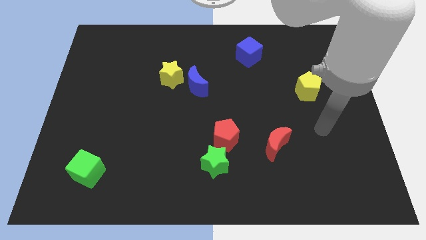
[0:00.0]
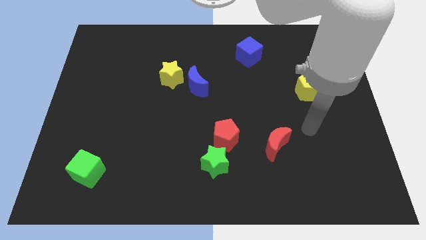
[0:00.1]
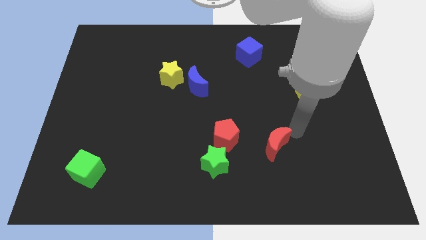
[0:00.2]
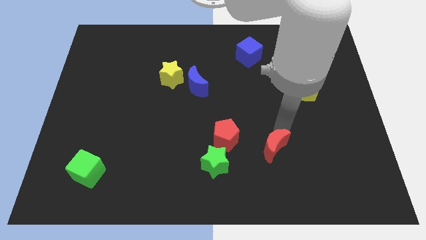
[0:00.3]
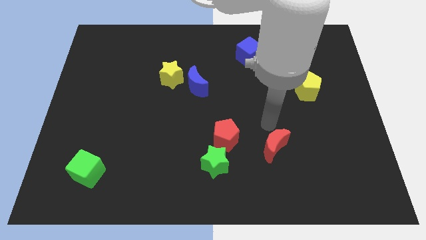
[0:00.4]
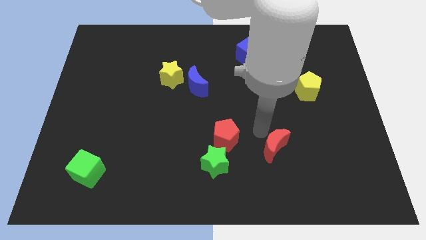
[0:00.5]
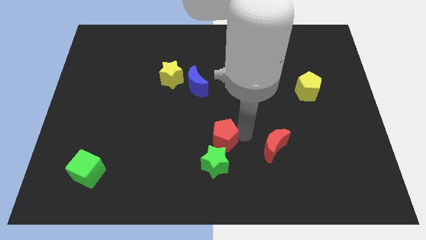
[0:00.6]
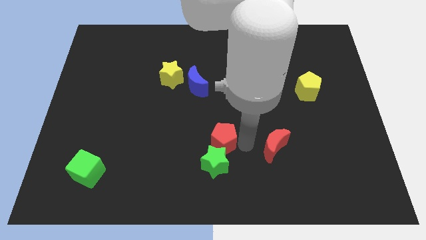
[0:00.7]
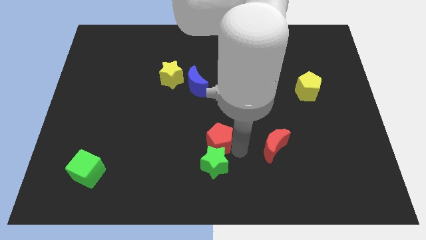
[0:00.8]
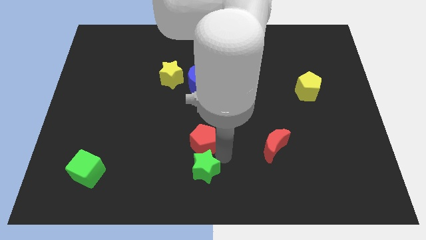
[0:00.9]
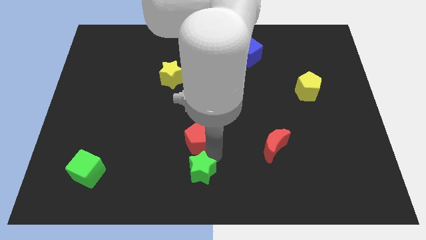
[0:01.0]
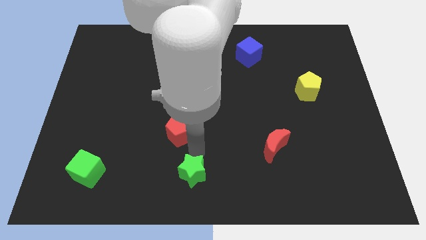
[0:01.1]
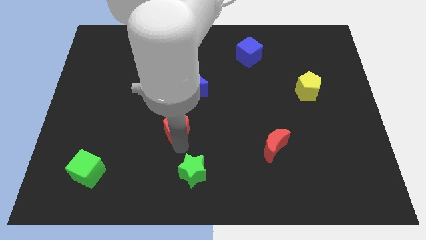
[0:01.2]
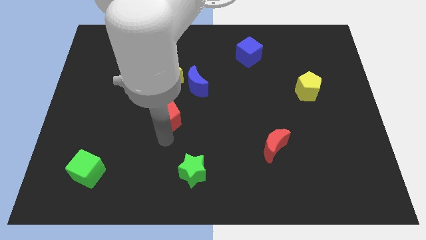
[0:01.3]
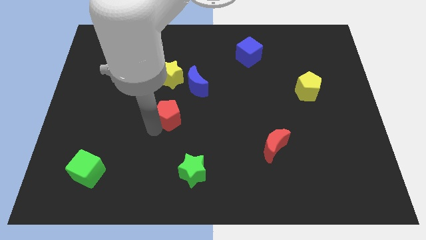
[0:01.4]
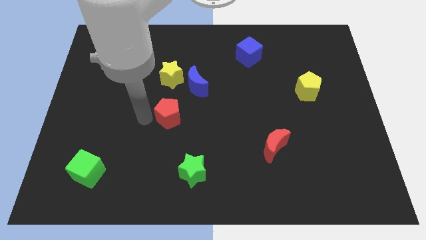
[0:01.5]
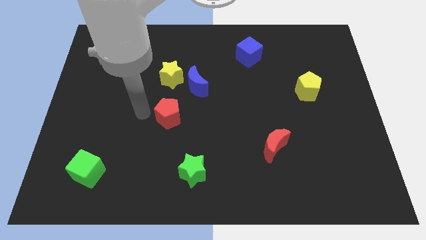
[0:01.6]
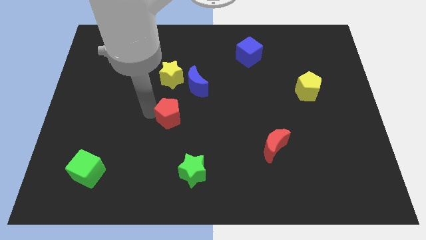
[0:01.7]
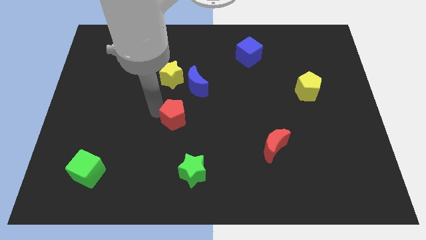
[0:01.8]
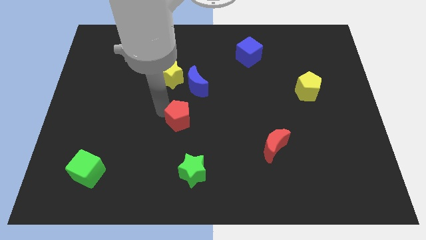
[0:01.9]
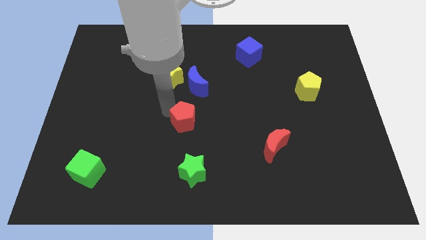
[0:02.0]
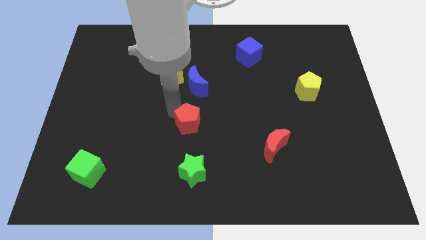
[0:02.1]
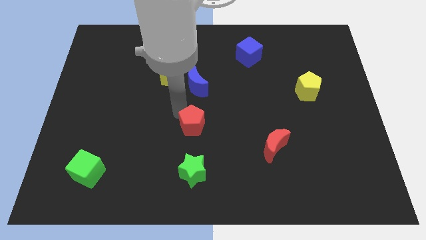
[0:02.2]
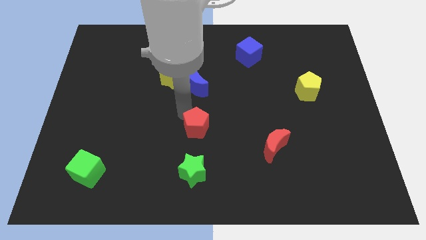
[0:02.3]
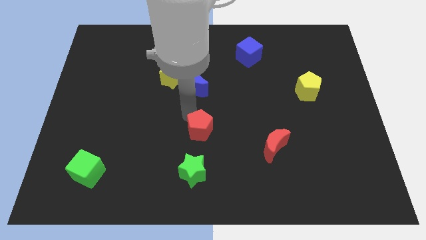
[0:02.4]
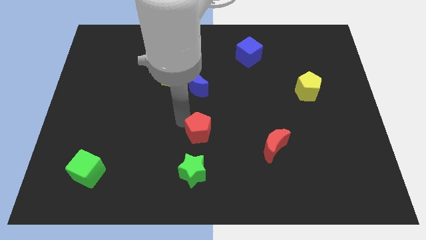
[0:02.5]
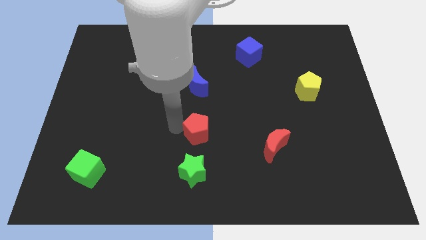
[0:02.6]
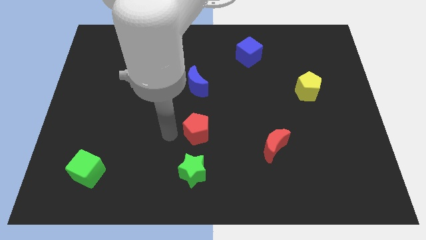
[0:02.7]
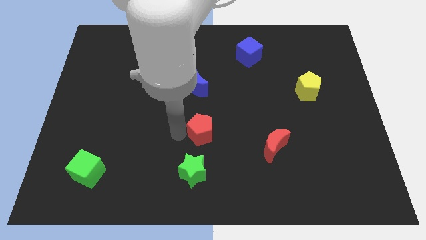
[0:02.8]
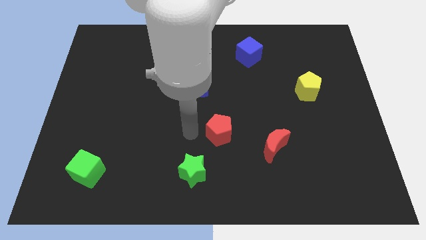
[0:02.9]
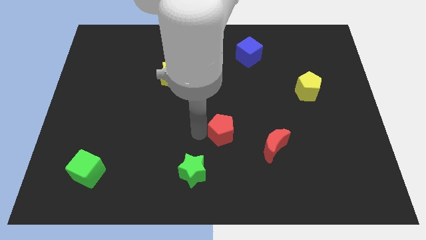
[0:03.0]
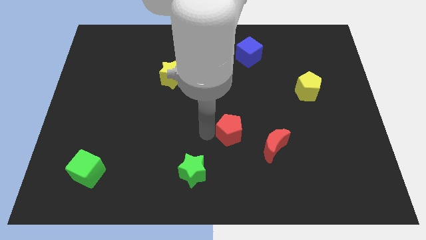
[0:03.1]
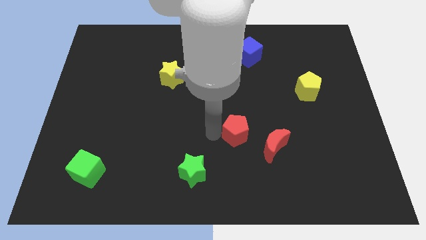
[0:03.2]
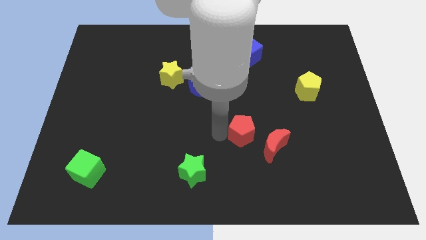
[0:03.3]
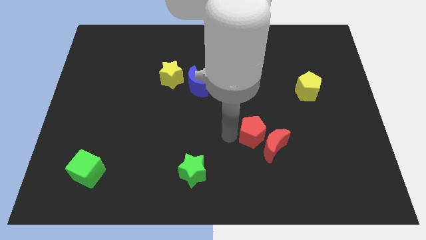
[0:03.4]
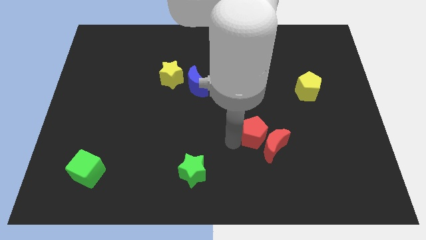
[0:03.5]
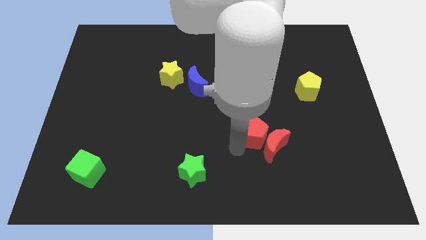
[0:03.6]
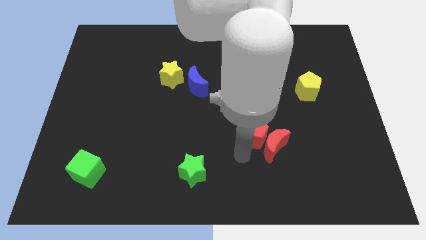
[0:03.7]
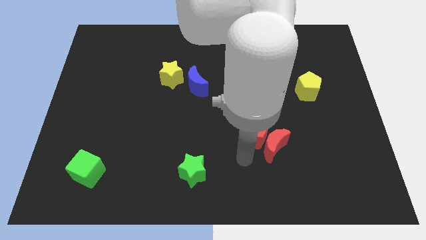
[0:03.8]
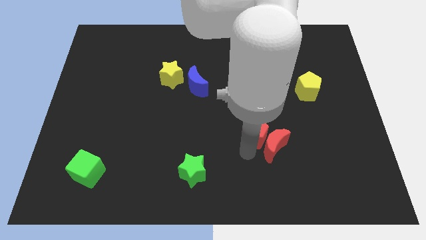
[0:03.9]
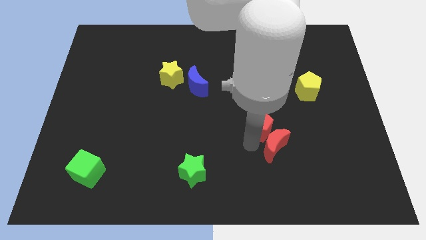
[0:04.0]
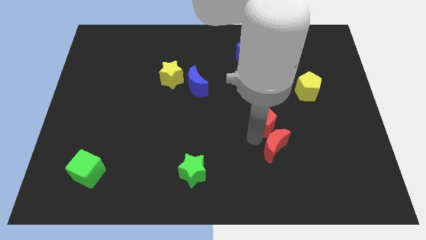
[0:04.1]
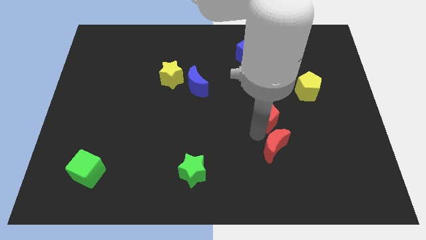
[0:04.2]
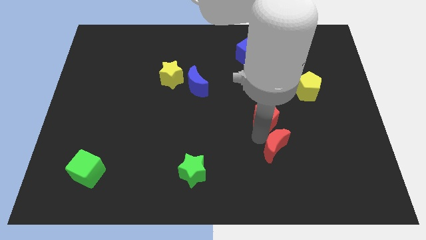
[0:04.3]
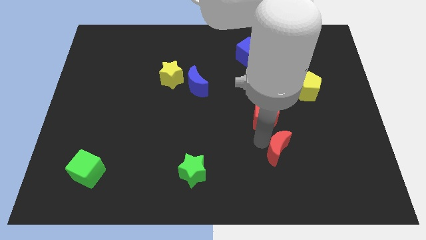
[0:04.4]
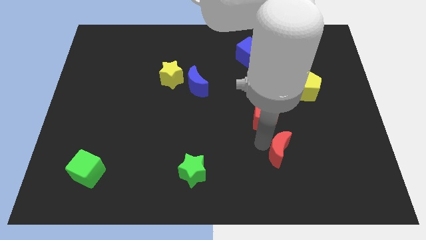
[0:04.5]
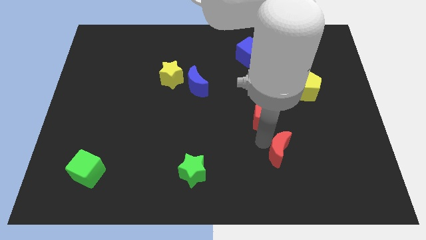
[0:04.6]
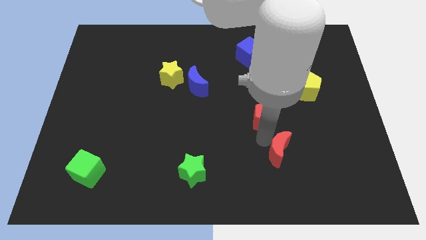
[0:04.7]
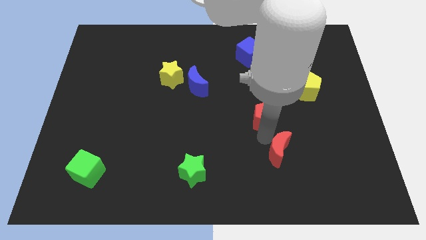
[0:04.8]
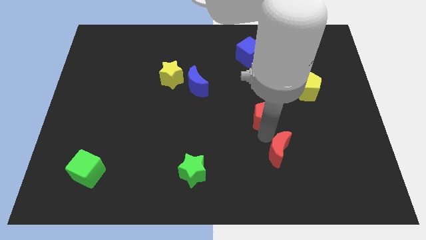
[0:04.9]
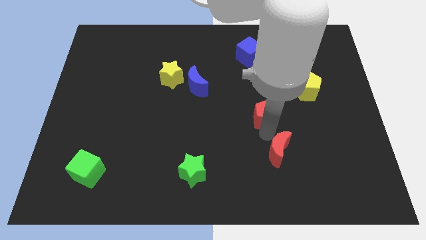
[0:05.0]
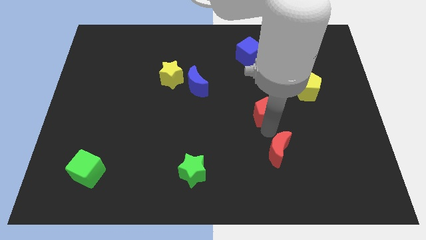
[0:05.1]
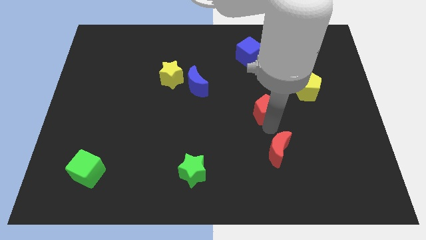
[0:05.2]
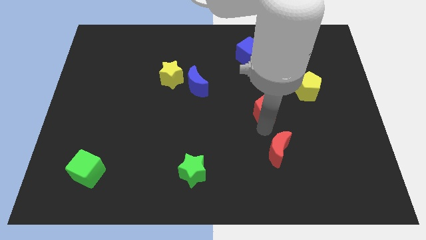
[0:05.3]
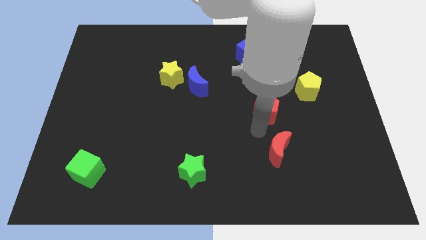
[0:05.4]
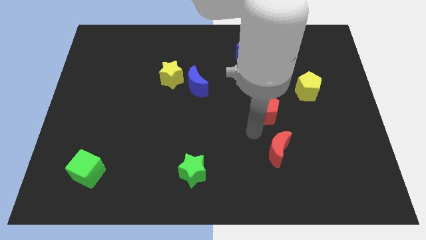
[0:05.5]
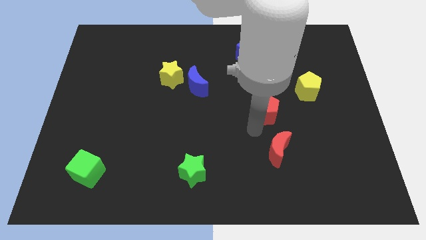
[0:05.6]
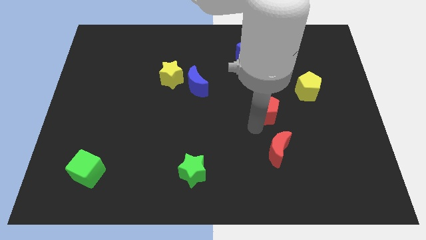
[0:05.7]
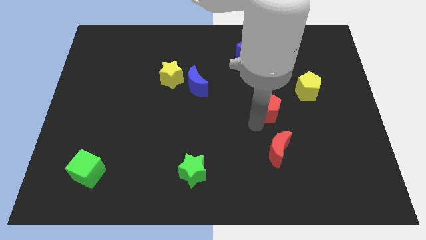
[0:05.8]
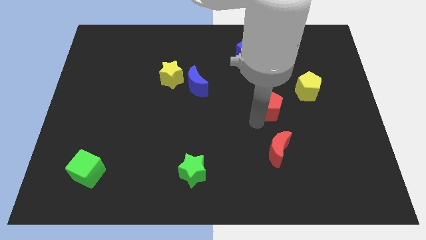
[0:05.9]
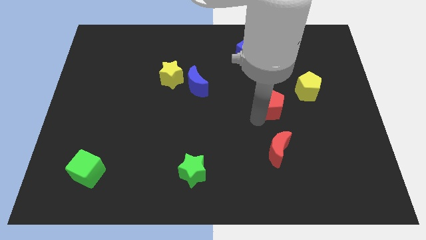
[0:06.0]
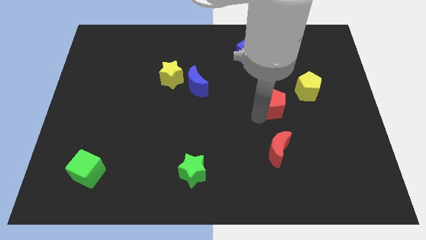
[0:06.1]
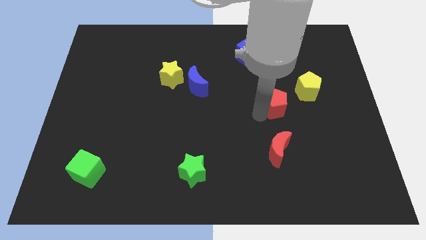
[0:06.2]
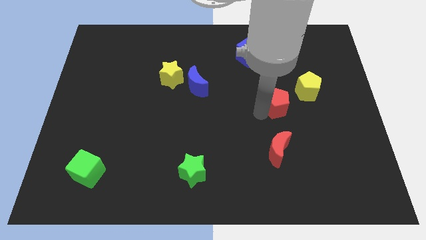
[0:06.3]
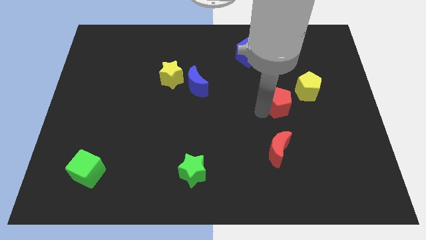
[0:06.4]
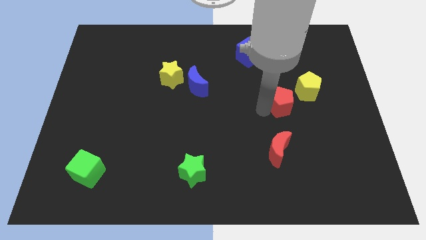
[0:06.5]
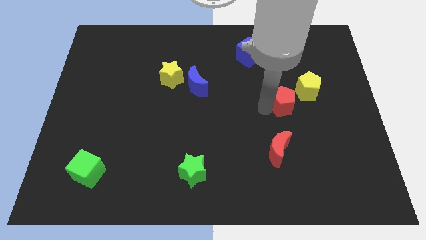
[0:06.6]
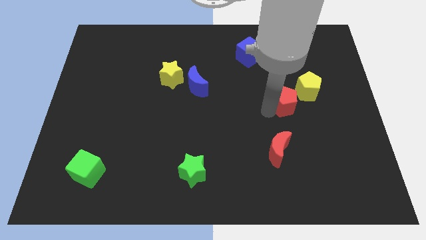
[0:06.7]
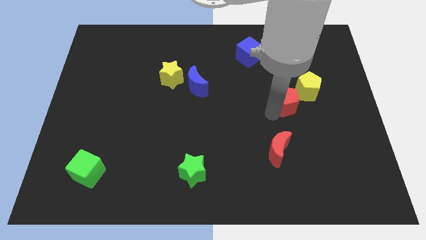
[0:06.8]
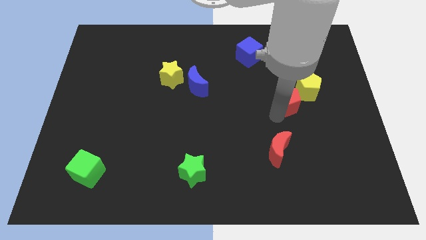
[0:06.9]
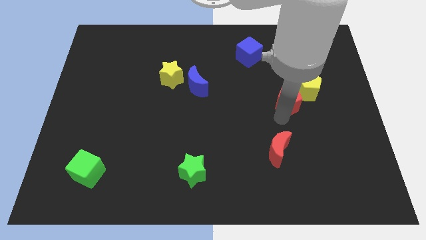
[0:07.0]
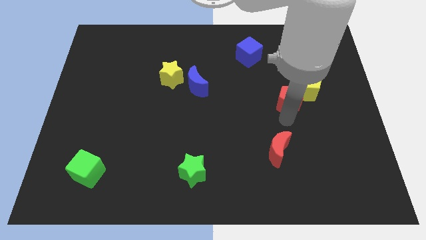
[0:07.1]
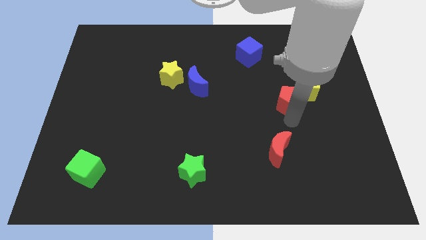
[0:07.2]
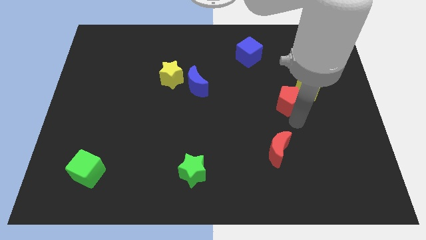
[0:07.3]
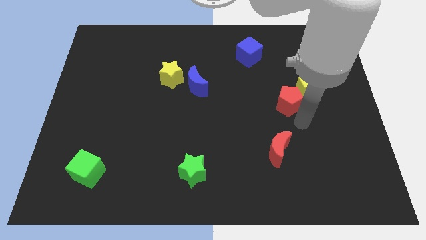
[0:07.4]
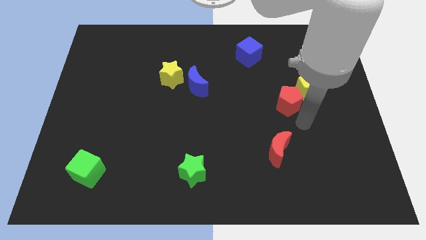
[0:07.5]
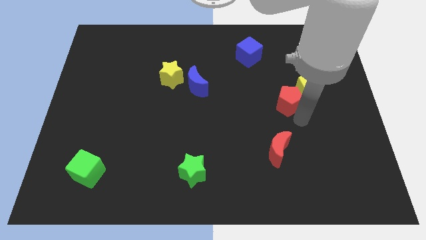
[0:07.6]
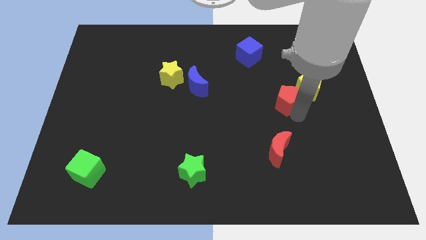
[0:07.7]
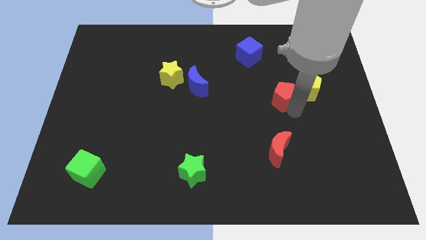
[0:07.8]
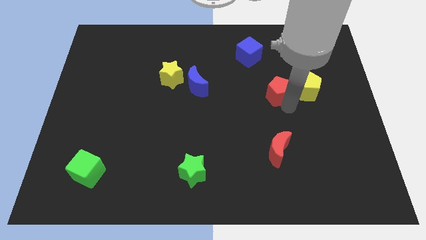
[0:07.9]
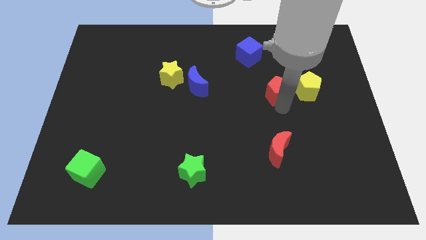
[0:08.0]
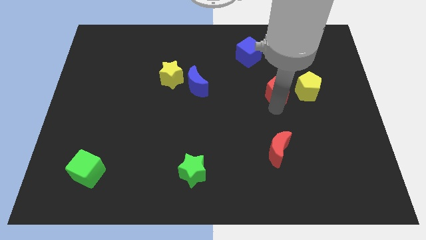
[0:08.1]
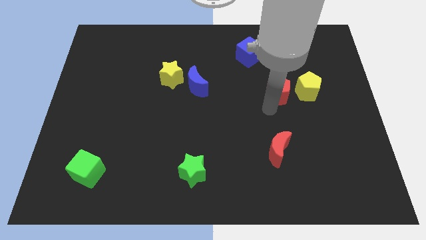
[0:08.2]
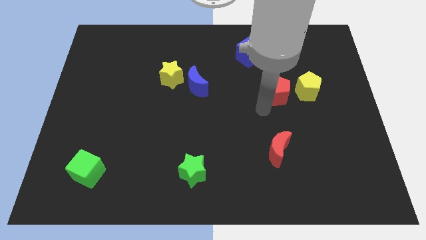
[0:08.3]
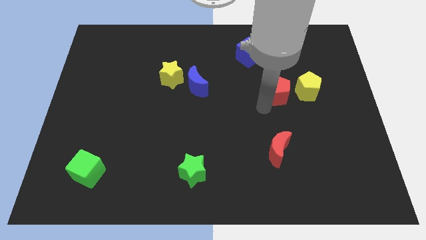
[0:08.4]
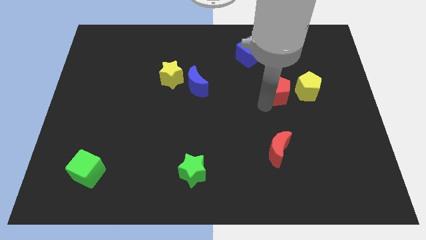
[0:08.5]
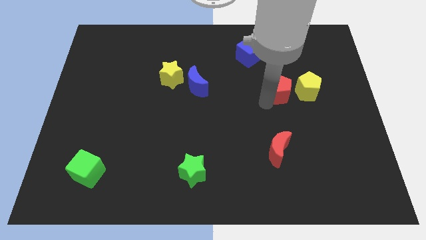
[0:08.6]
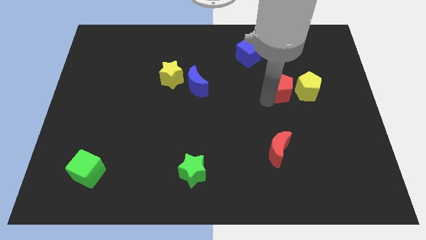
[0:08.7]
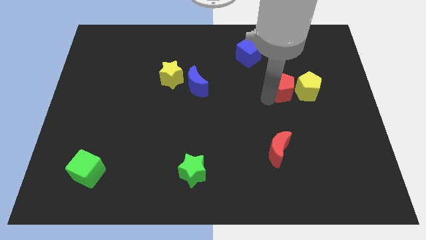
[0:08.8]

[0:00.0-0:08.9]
slide the red pentagon up and then to the right
